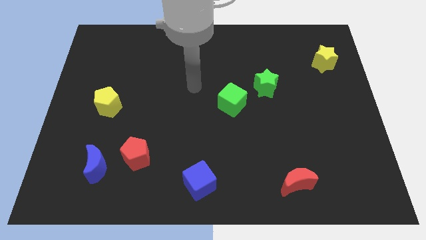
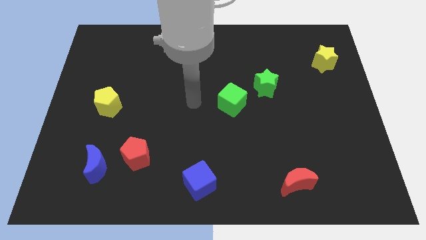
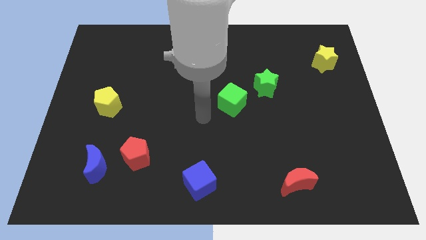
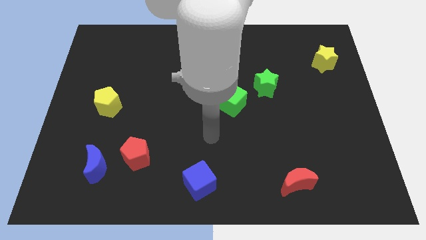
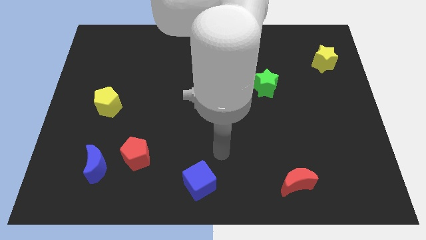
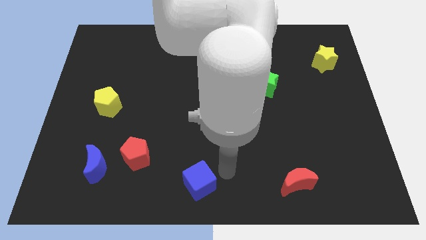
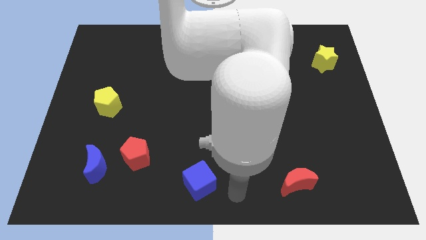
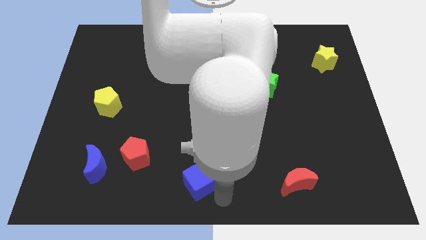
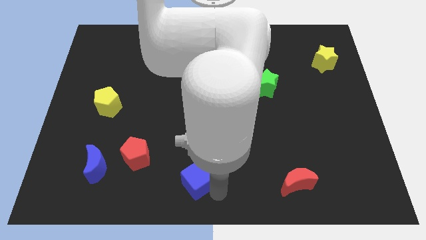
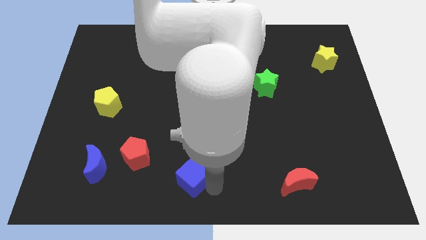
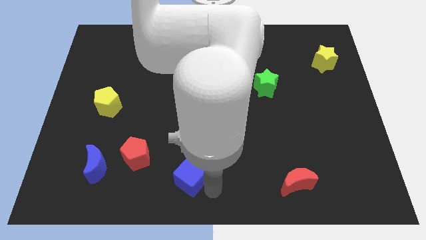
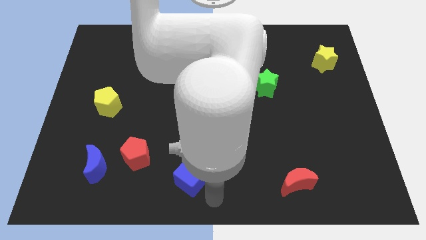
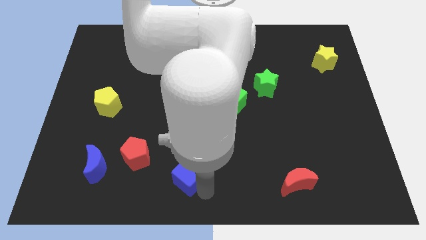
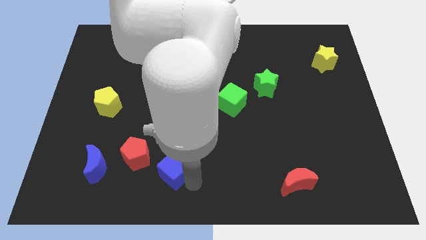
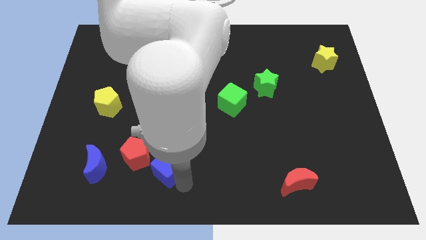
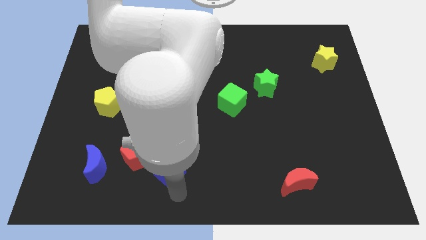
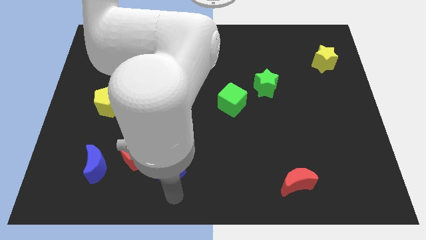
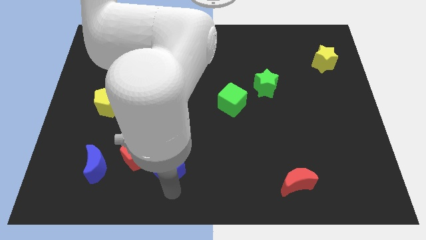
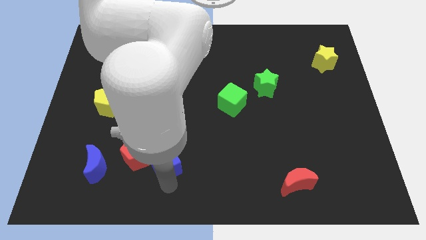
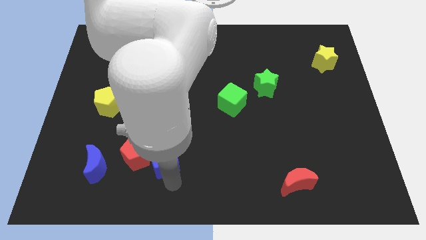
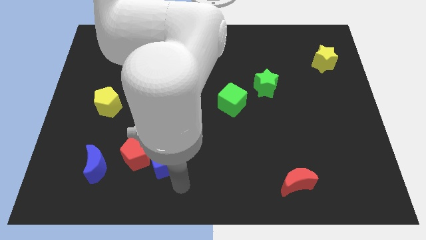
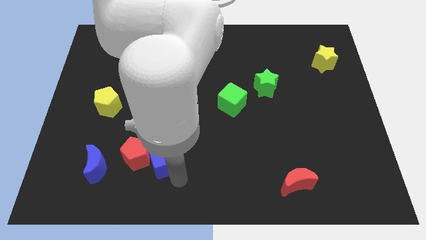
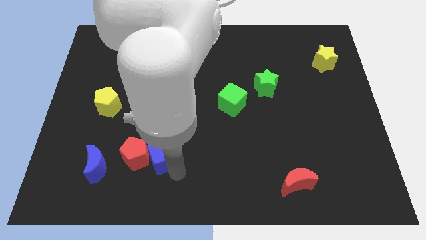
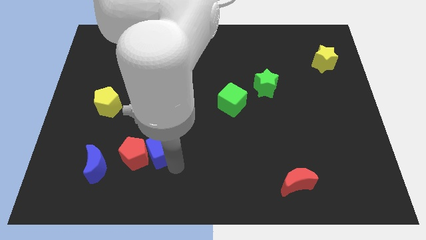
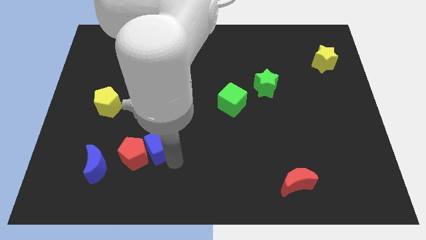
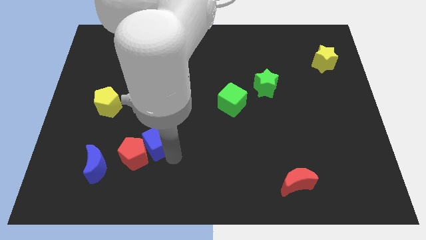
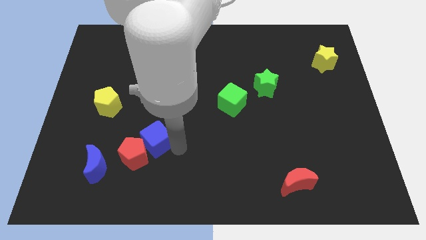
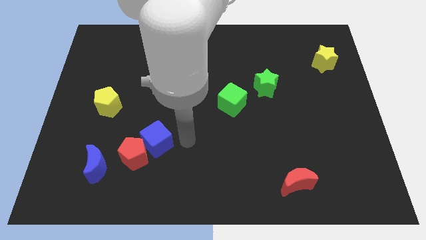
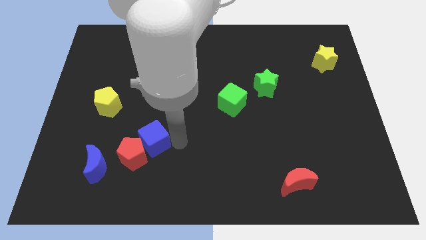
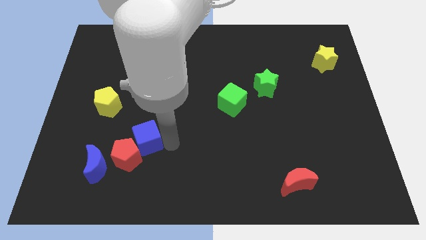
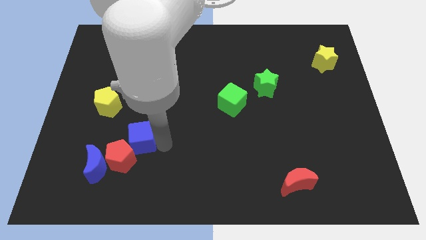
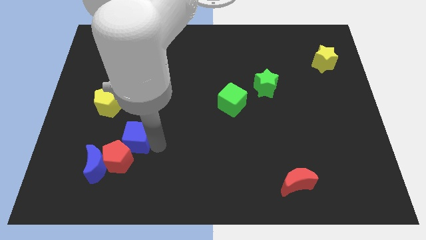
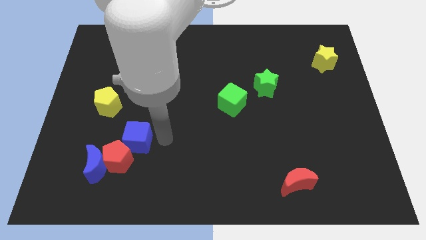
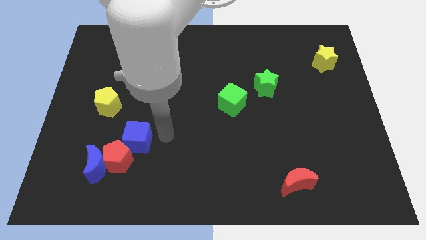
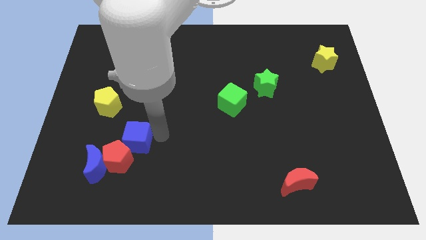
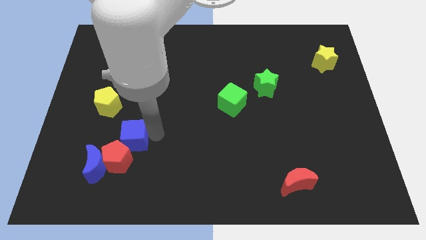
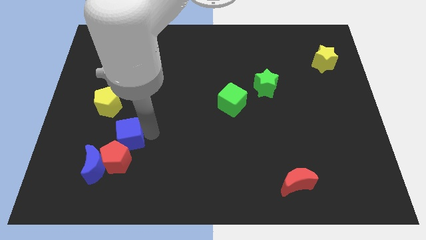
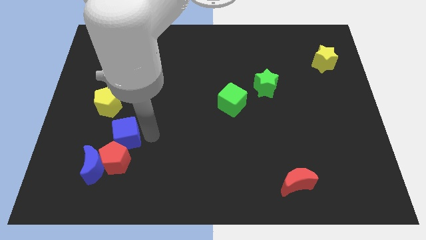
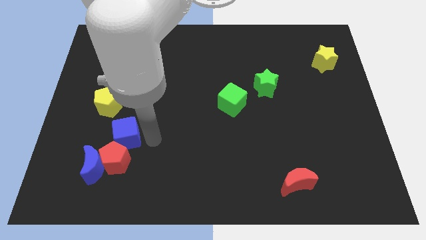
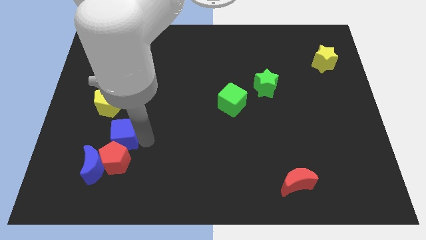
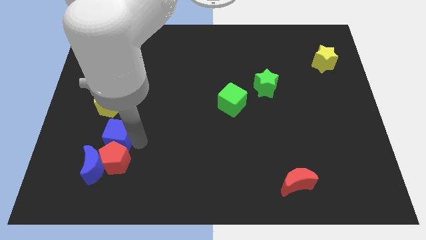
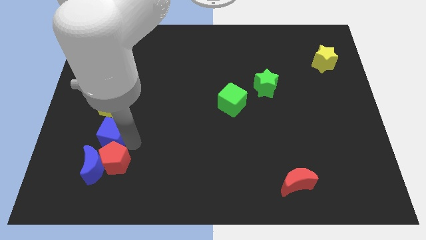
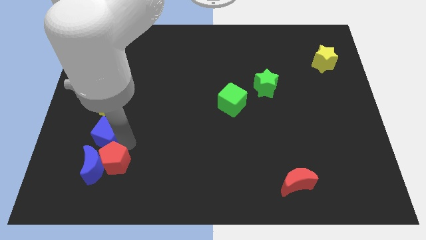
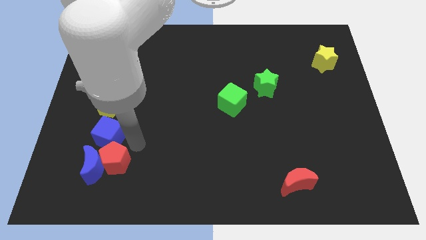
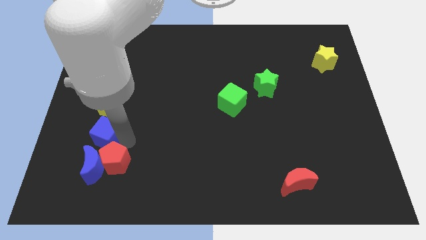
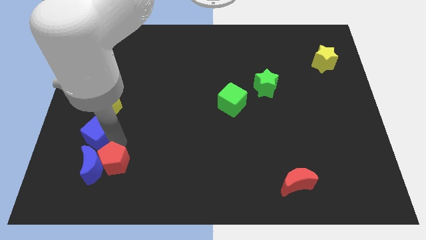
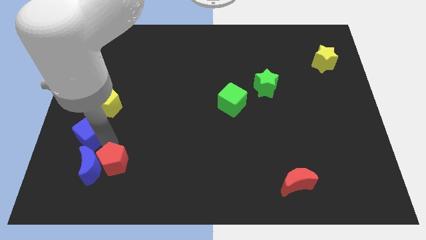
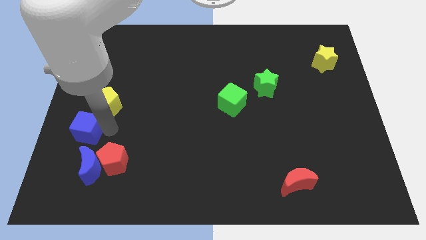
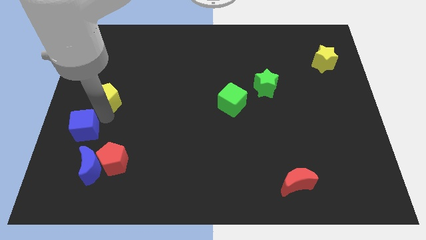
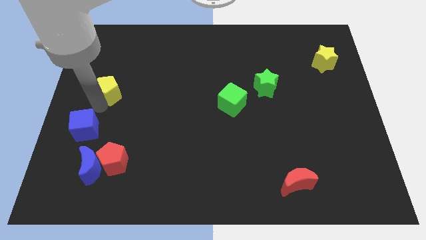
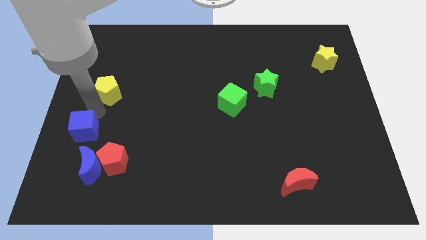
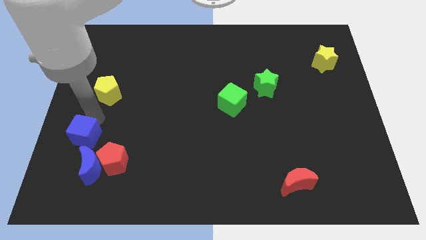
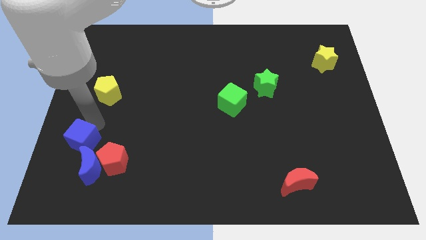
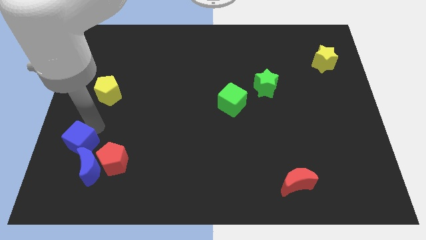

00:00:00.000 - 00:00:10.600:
move the blue cube left of the red pentagon

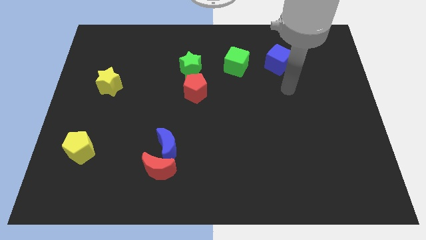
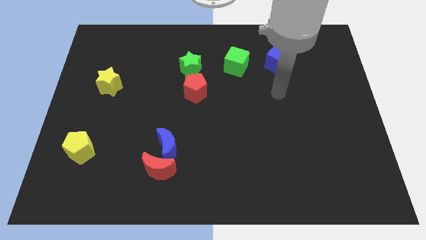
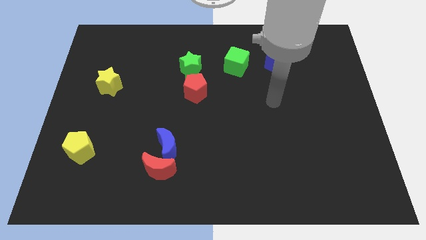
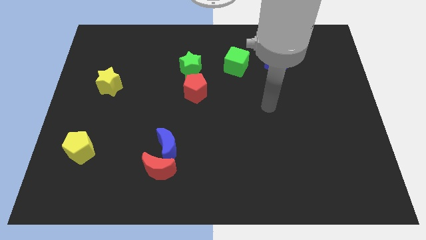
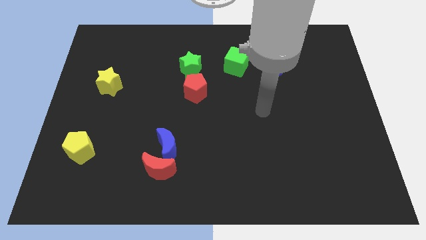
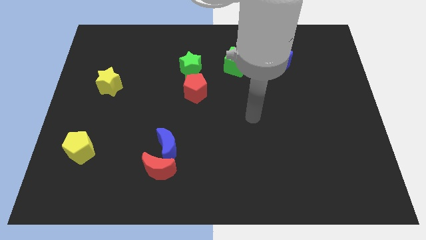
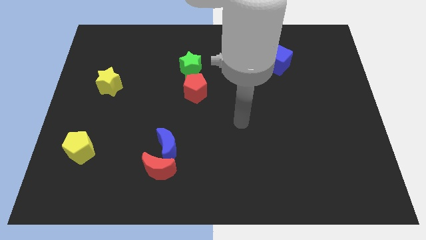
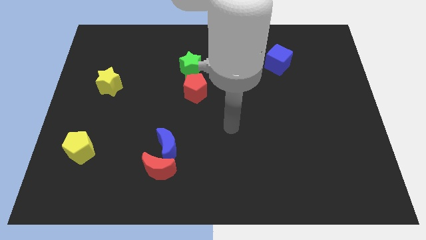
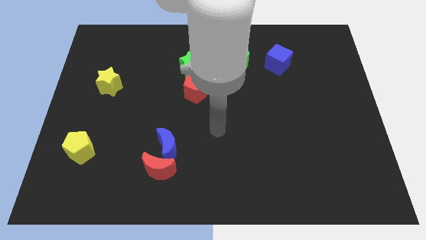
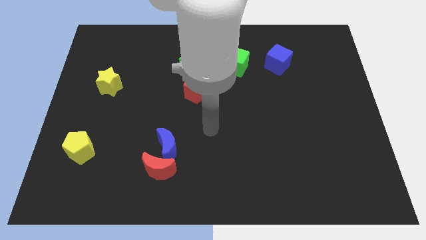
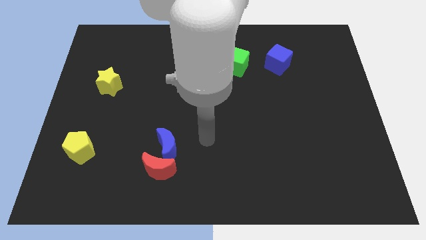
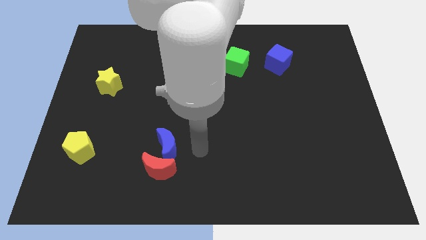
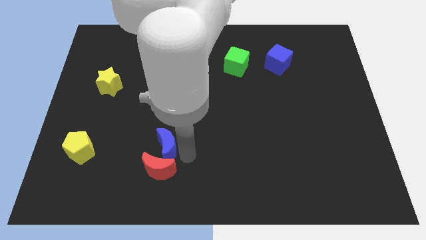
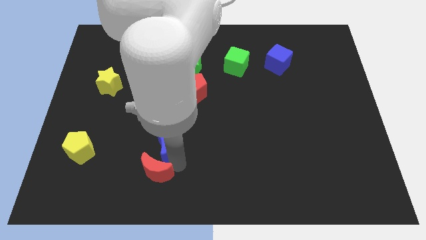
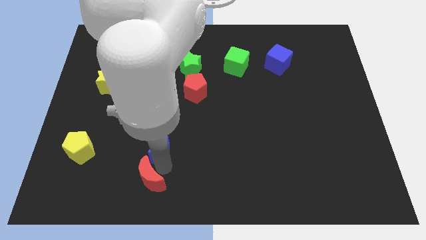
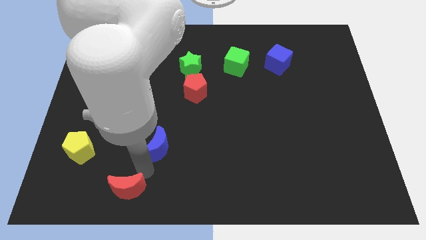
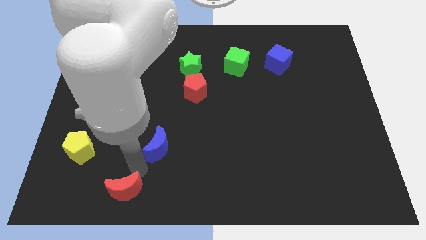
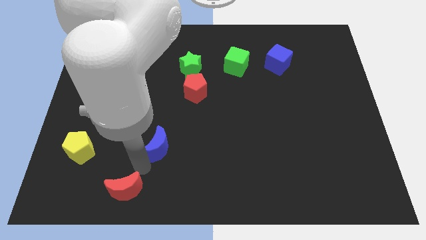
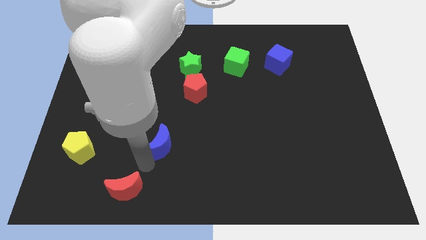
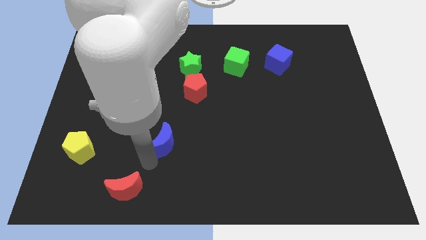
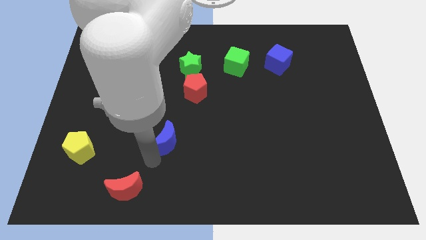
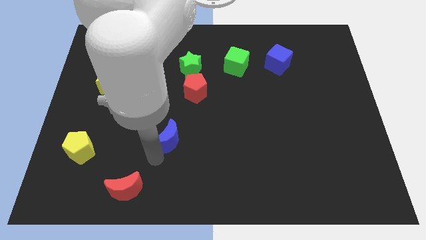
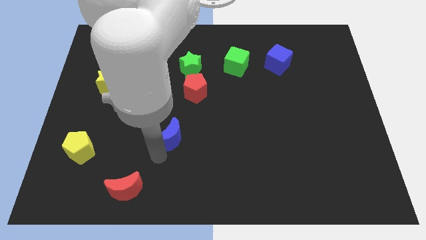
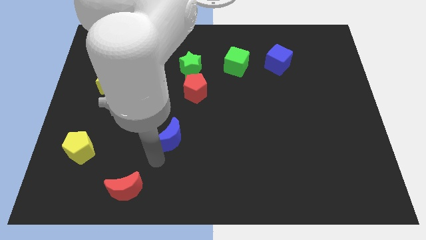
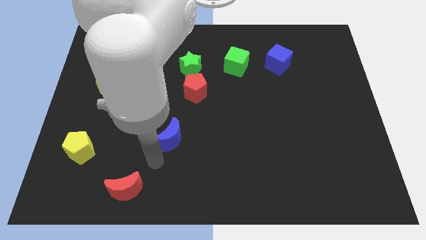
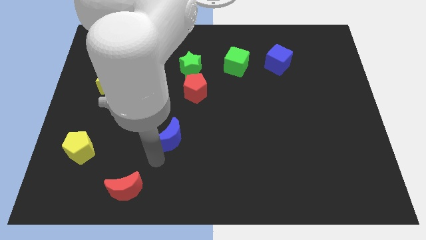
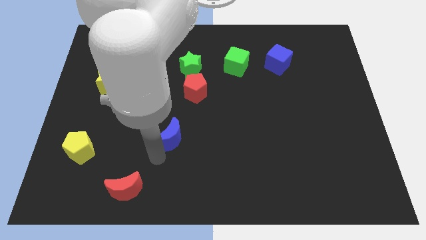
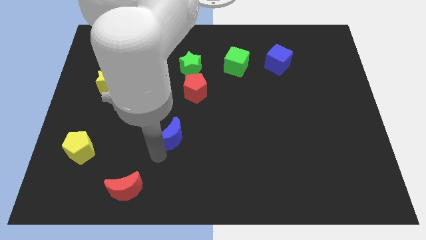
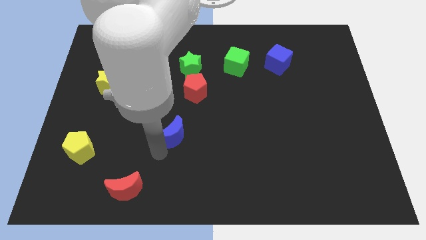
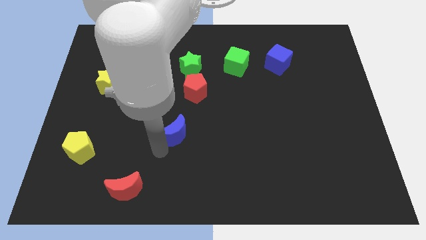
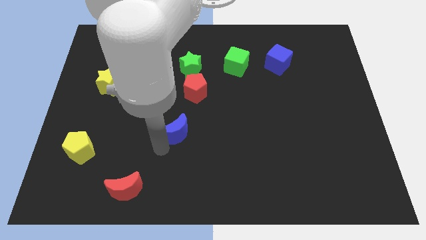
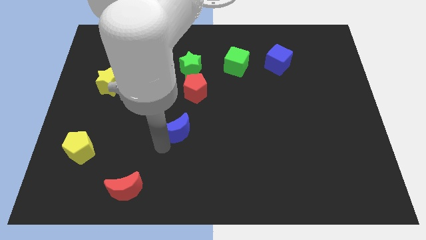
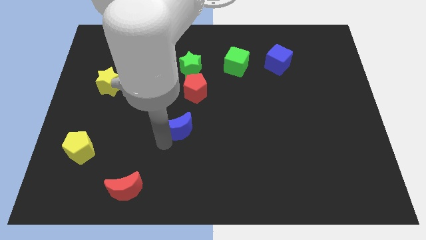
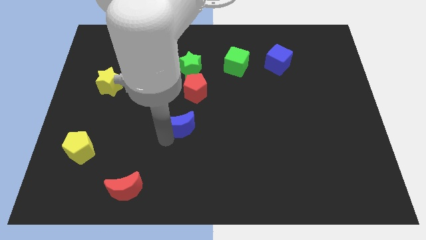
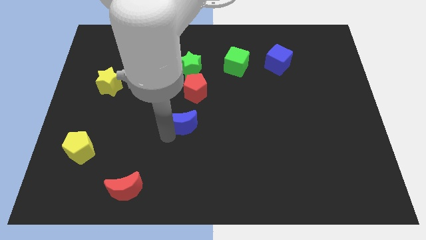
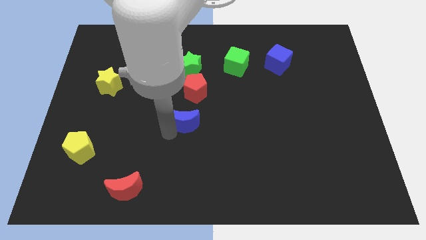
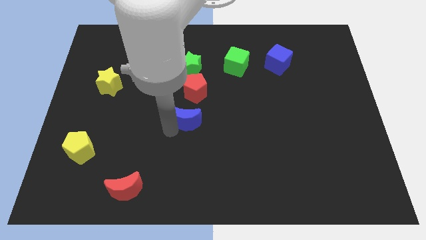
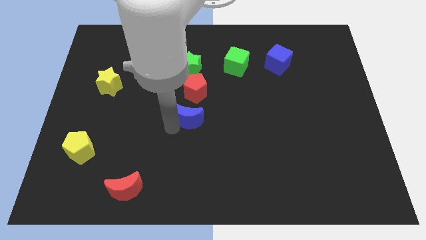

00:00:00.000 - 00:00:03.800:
move the blue moon to the bottom of the green star
